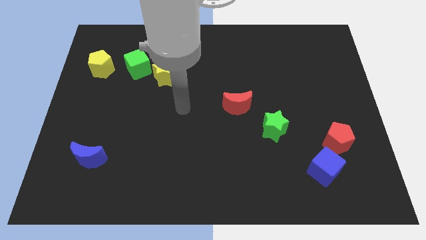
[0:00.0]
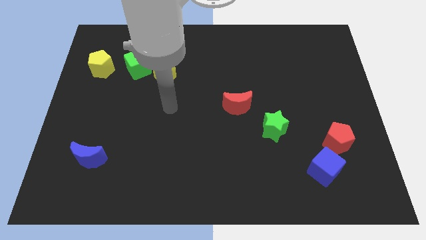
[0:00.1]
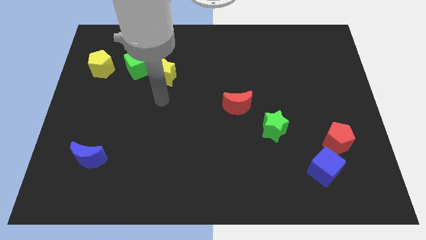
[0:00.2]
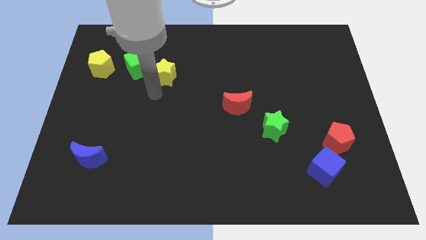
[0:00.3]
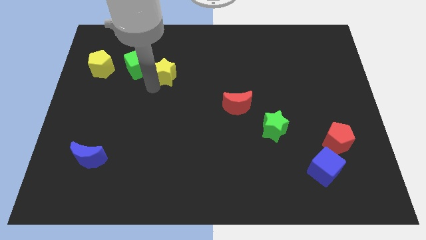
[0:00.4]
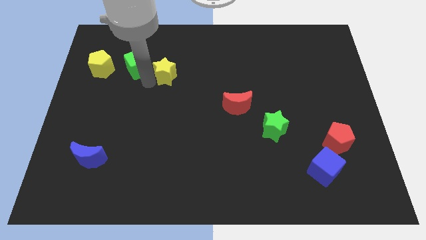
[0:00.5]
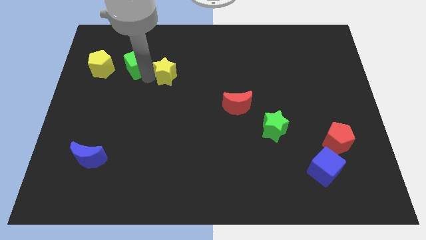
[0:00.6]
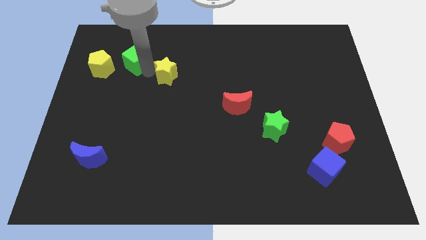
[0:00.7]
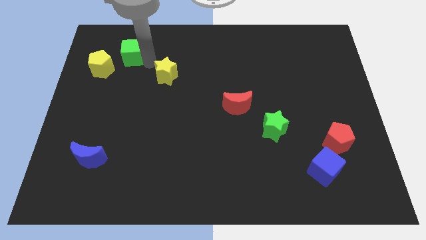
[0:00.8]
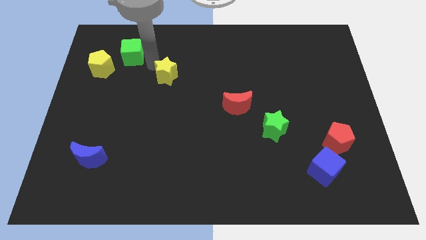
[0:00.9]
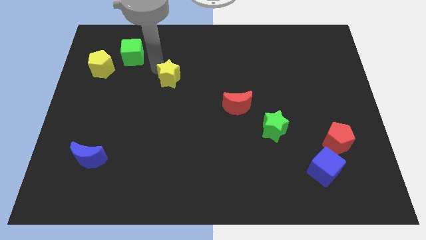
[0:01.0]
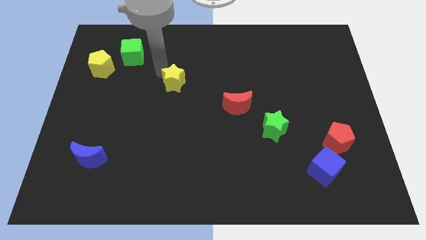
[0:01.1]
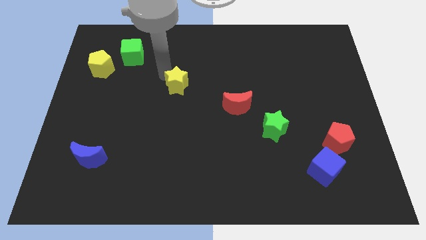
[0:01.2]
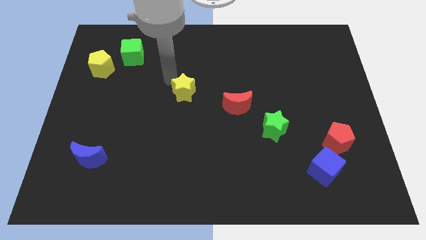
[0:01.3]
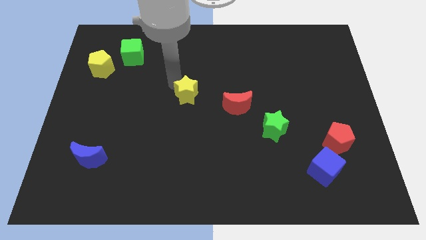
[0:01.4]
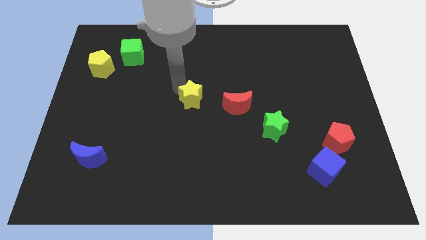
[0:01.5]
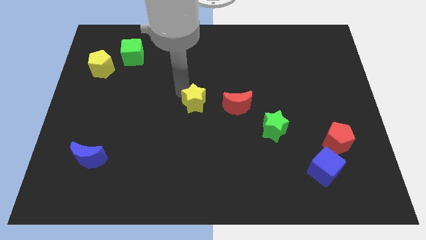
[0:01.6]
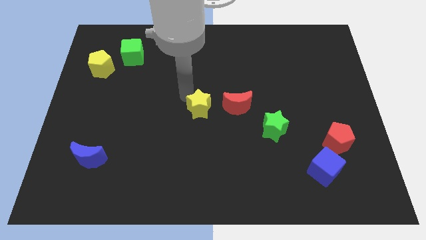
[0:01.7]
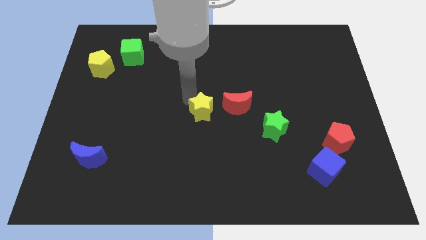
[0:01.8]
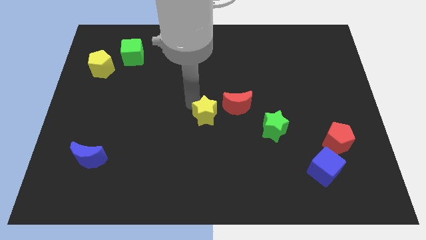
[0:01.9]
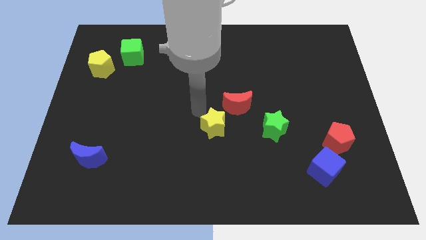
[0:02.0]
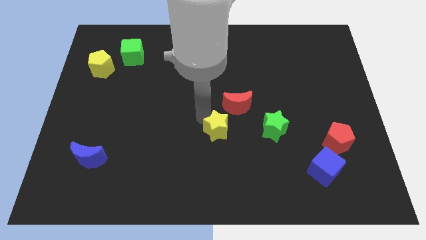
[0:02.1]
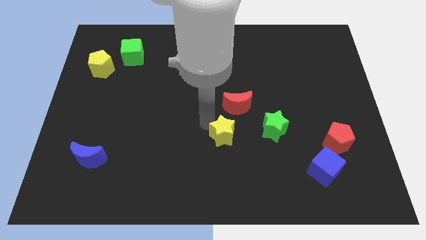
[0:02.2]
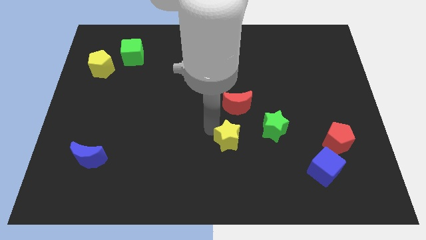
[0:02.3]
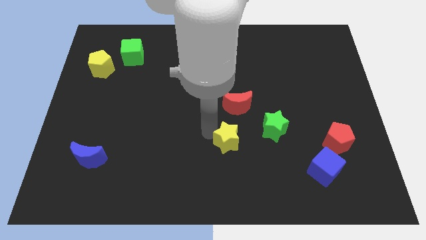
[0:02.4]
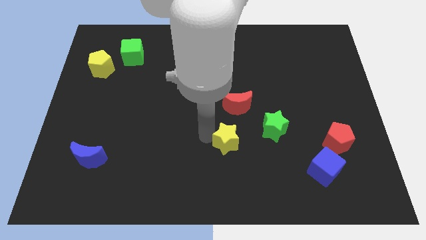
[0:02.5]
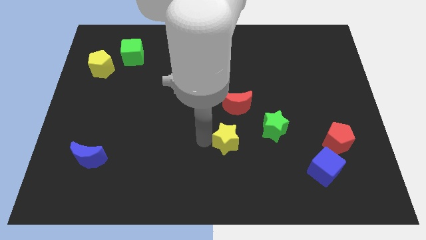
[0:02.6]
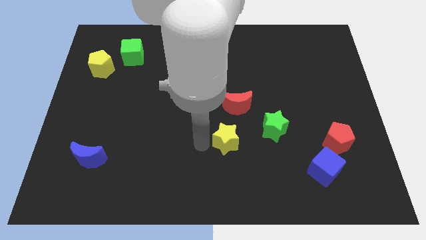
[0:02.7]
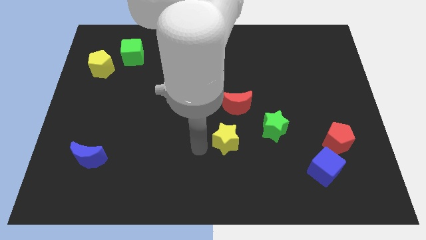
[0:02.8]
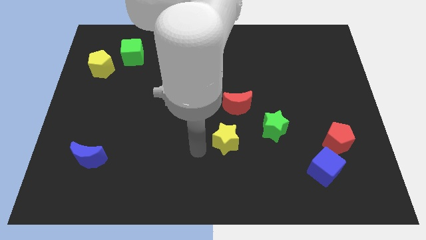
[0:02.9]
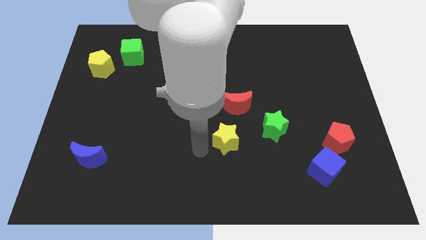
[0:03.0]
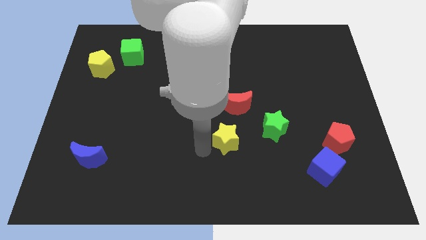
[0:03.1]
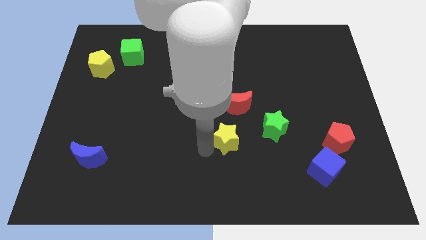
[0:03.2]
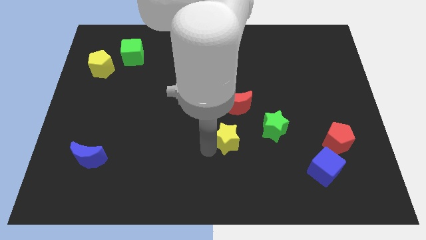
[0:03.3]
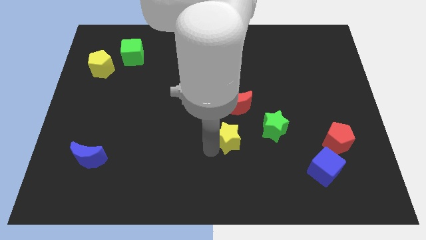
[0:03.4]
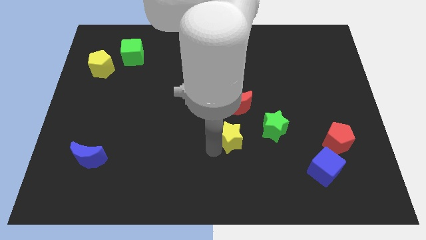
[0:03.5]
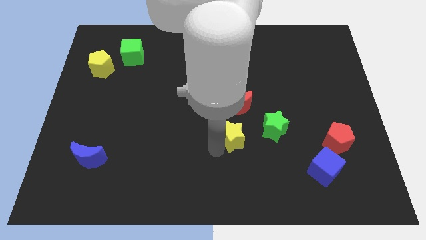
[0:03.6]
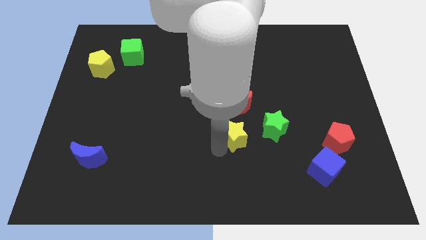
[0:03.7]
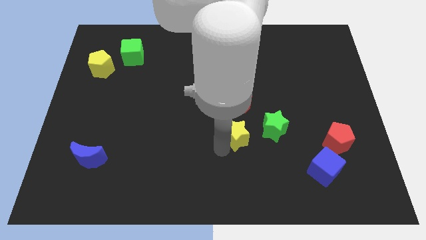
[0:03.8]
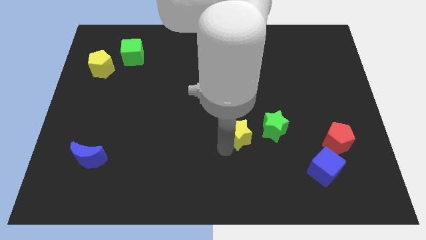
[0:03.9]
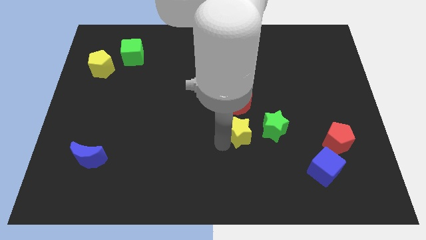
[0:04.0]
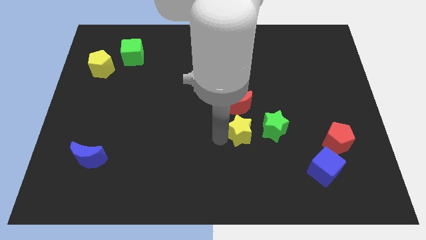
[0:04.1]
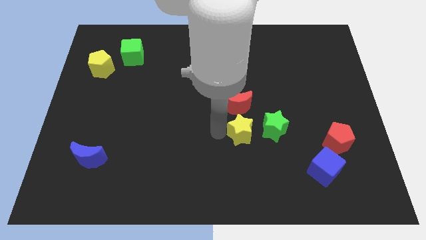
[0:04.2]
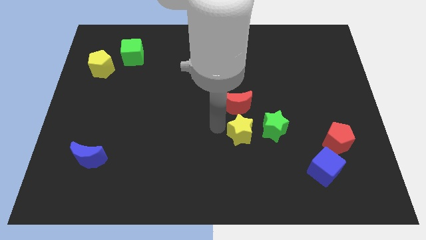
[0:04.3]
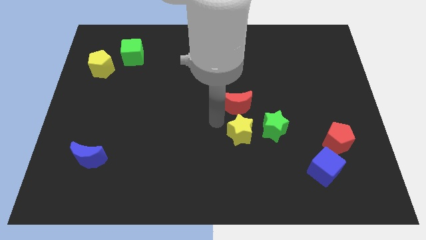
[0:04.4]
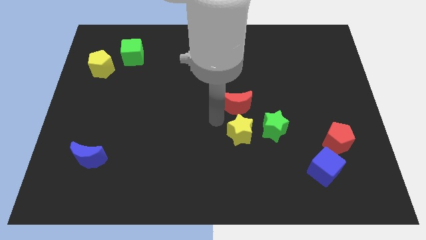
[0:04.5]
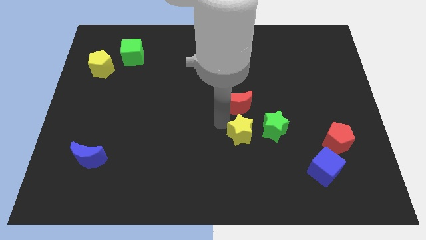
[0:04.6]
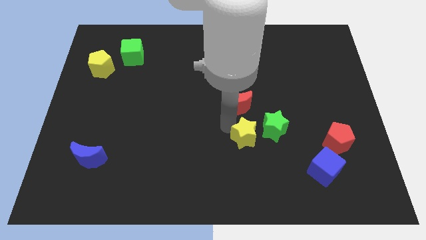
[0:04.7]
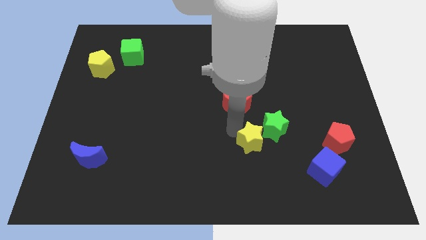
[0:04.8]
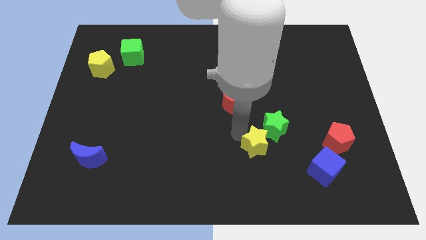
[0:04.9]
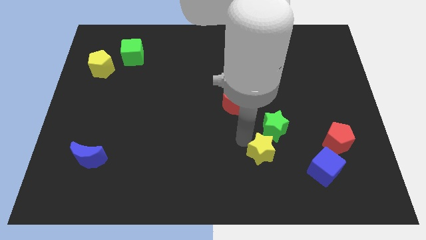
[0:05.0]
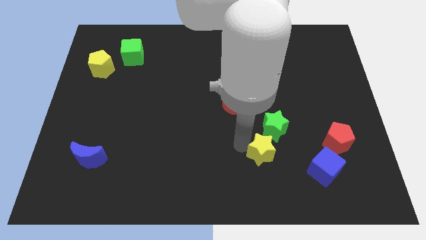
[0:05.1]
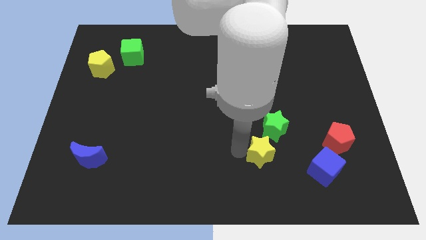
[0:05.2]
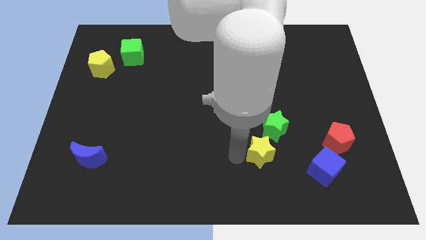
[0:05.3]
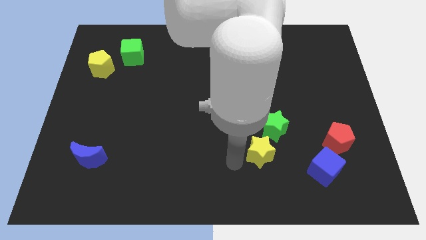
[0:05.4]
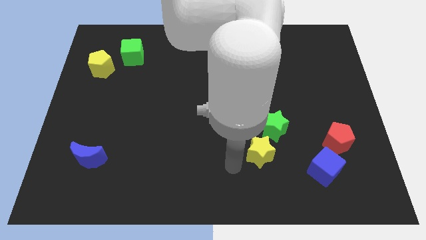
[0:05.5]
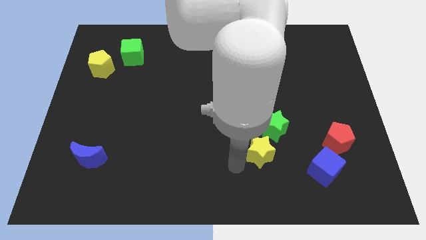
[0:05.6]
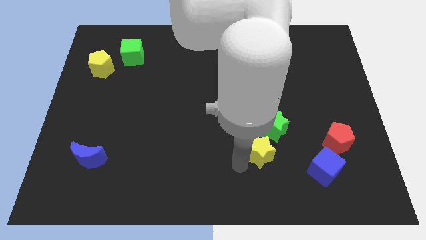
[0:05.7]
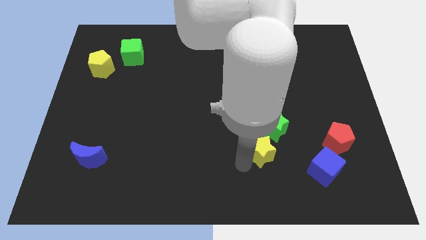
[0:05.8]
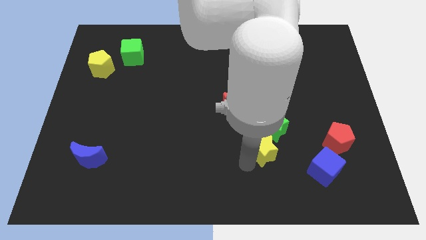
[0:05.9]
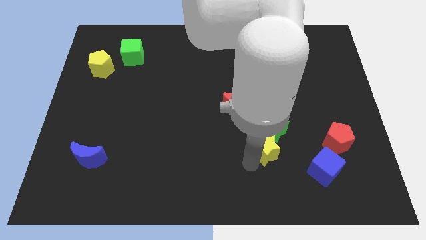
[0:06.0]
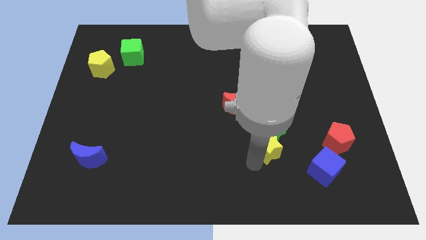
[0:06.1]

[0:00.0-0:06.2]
put the yellow star left of the red pentagon
